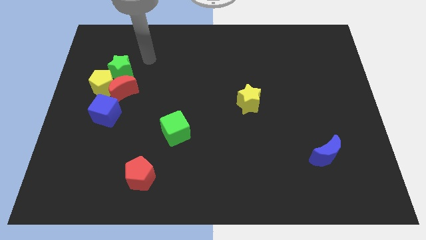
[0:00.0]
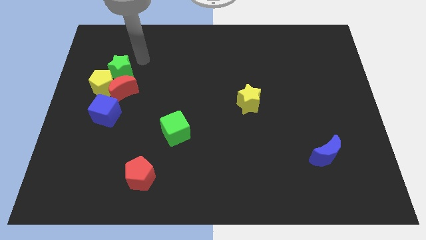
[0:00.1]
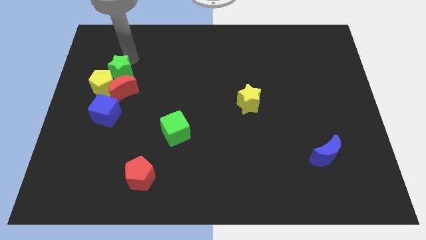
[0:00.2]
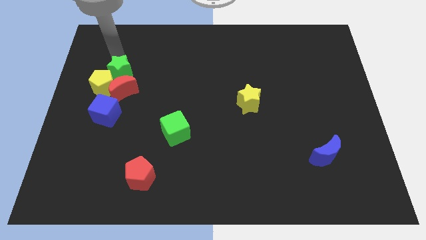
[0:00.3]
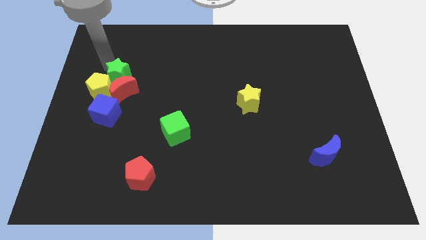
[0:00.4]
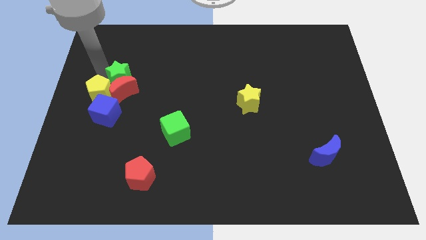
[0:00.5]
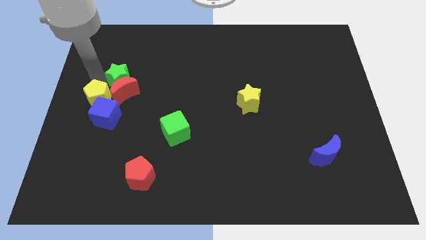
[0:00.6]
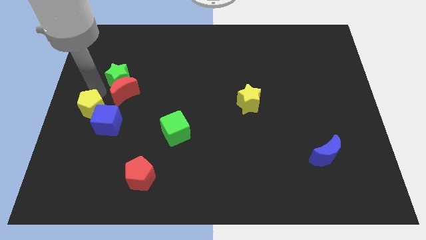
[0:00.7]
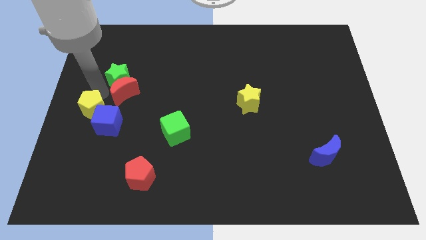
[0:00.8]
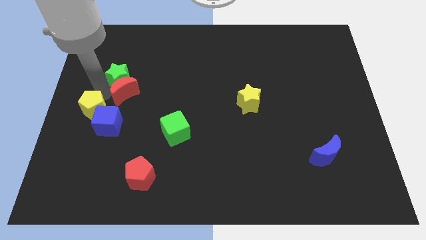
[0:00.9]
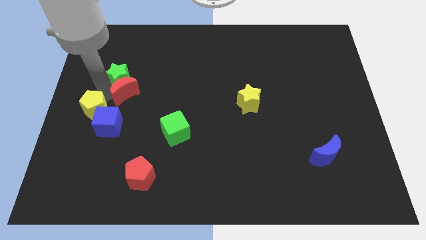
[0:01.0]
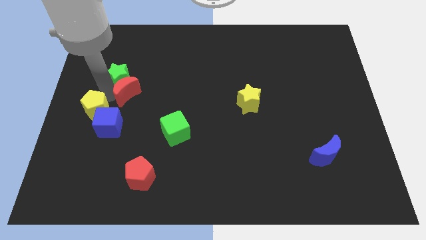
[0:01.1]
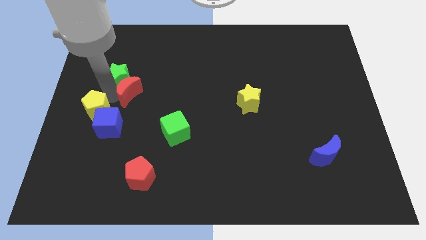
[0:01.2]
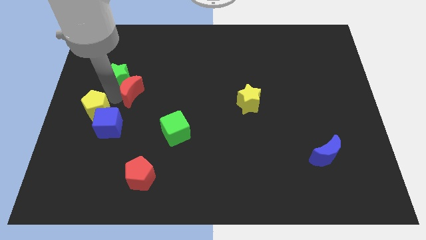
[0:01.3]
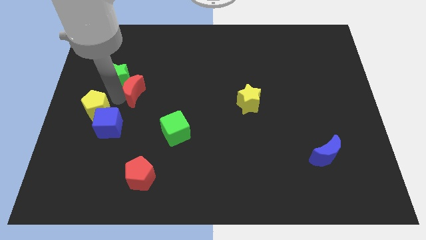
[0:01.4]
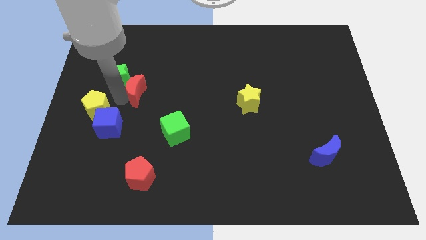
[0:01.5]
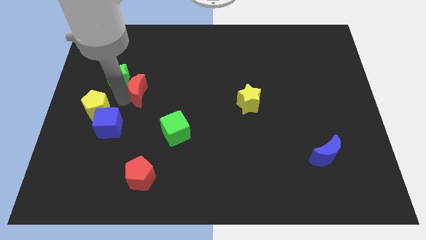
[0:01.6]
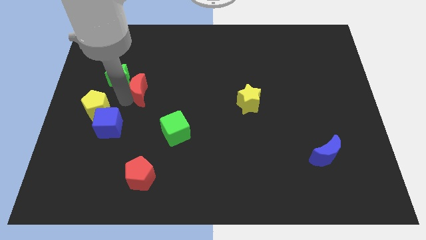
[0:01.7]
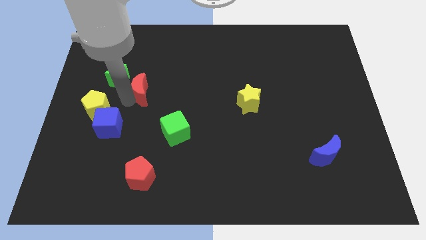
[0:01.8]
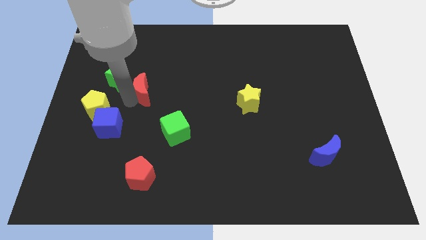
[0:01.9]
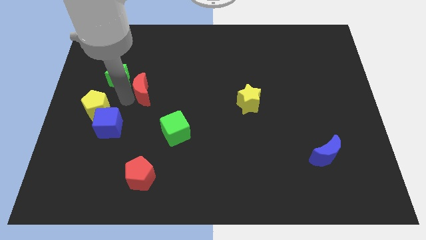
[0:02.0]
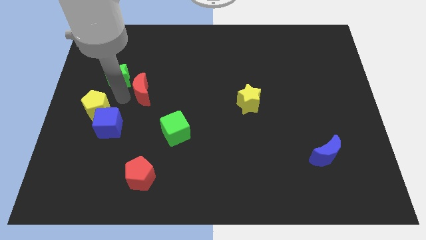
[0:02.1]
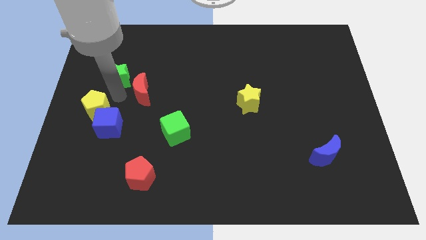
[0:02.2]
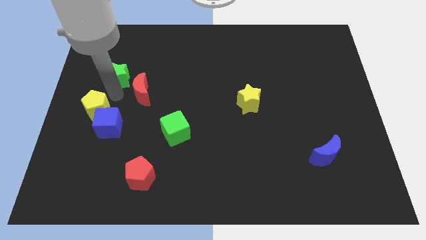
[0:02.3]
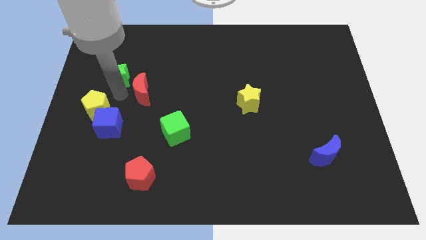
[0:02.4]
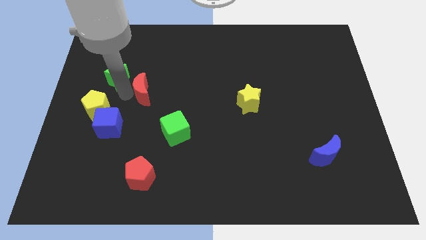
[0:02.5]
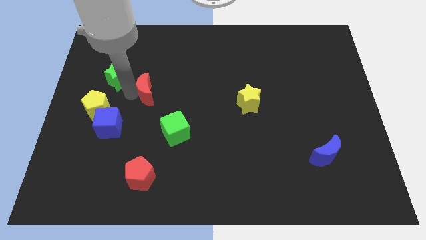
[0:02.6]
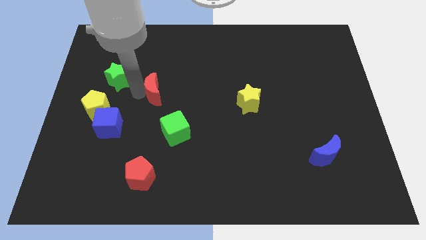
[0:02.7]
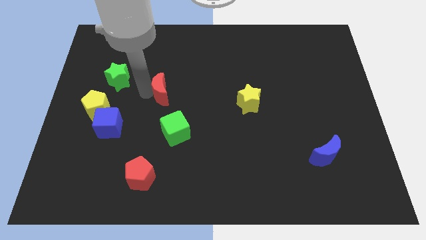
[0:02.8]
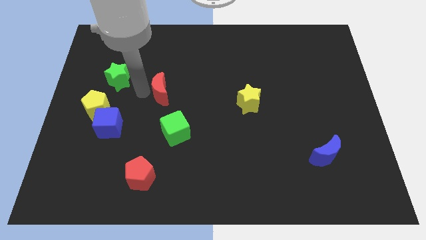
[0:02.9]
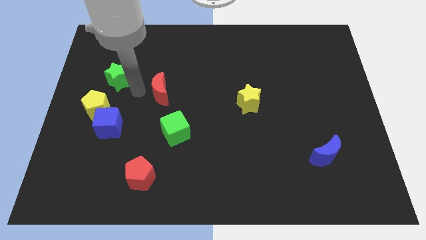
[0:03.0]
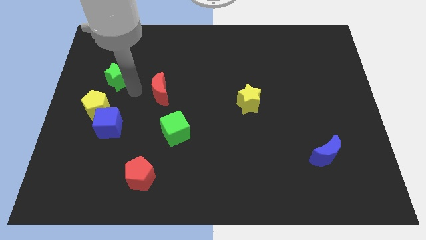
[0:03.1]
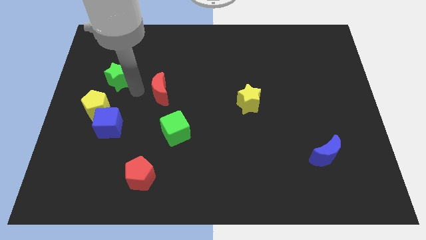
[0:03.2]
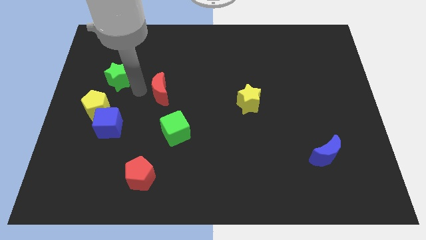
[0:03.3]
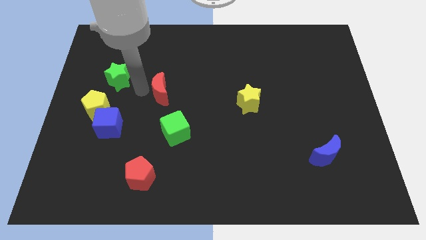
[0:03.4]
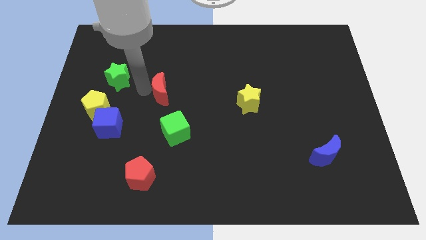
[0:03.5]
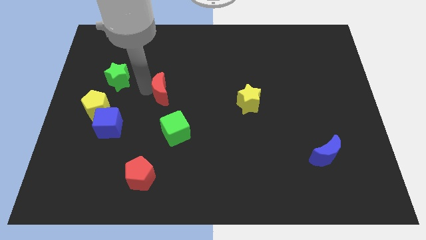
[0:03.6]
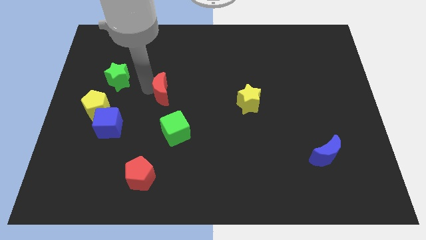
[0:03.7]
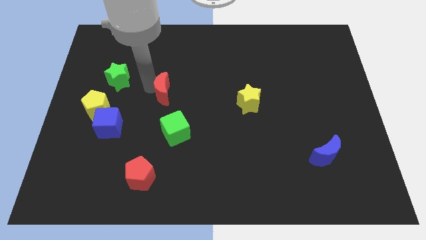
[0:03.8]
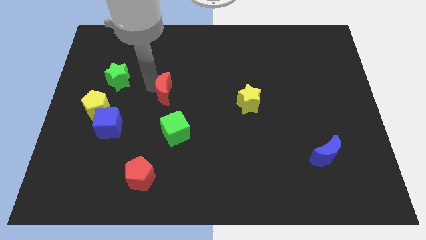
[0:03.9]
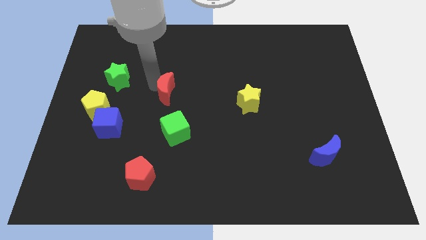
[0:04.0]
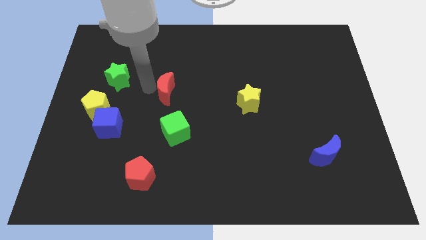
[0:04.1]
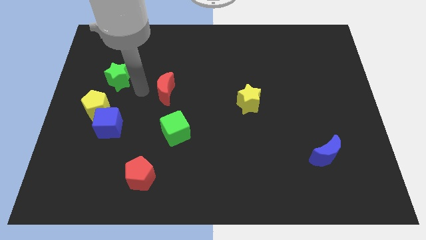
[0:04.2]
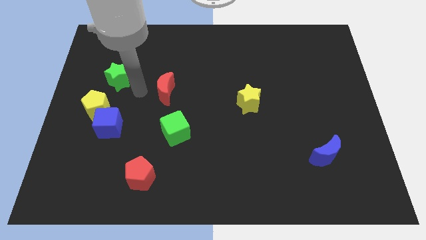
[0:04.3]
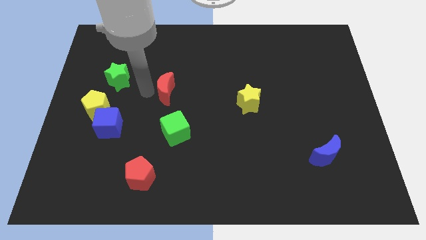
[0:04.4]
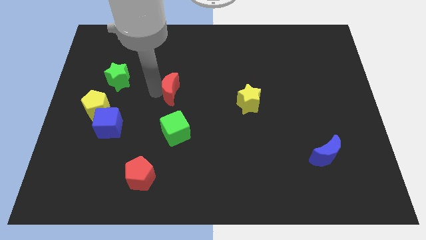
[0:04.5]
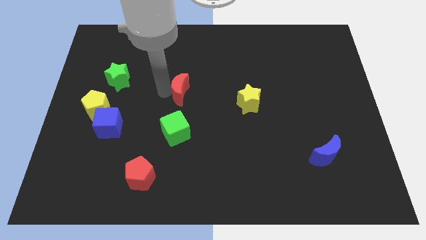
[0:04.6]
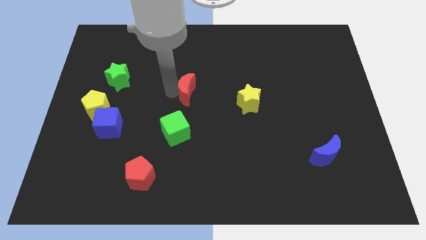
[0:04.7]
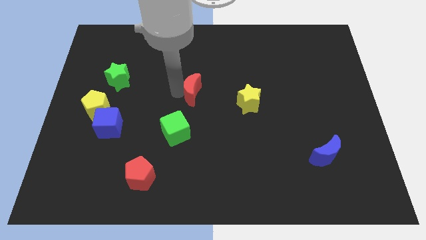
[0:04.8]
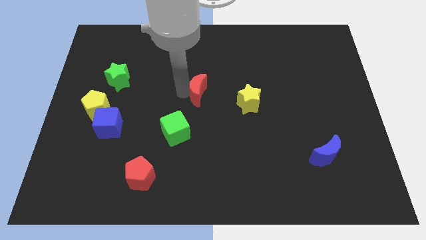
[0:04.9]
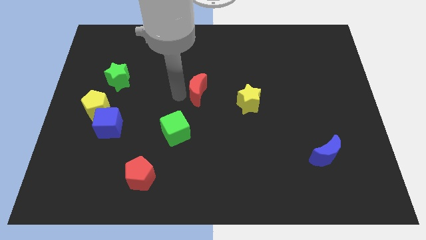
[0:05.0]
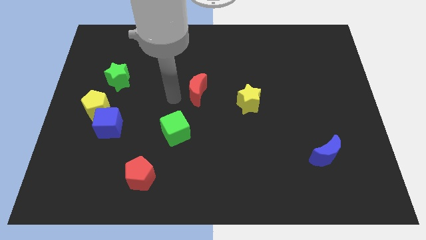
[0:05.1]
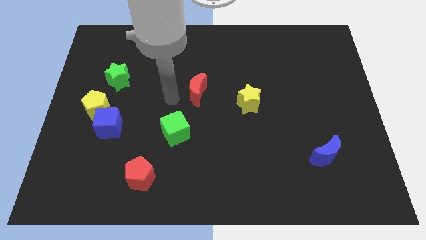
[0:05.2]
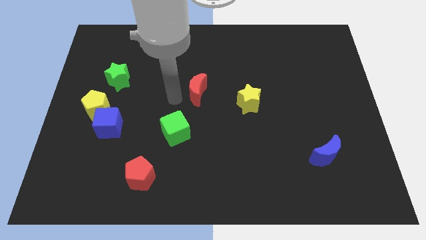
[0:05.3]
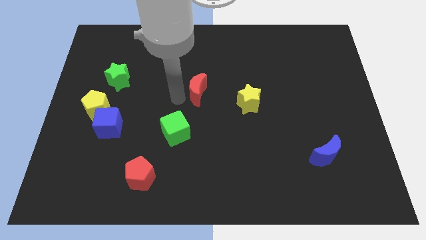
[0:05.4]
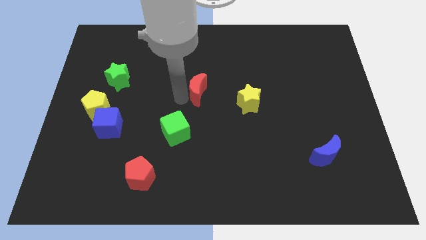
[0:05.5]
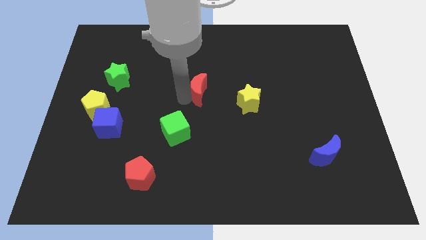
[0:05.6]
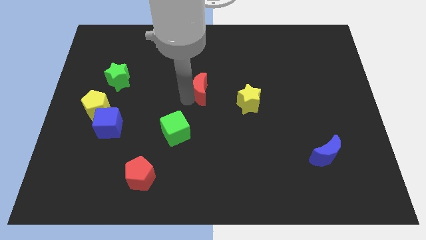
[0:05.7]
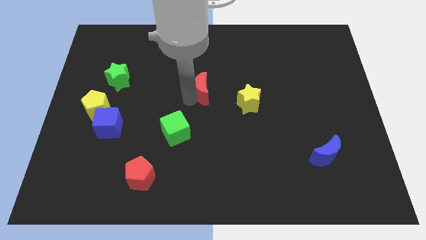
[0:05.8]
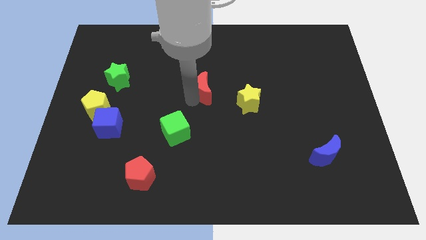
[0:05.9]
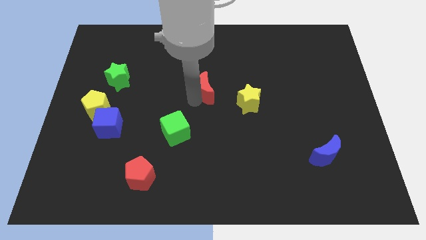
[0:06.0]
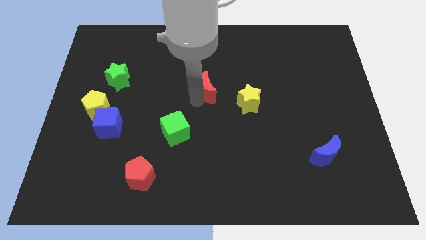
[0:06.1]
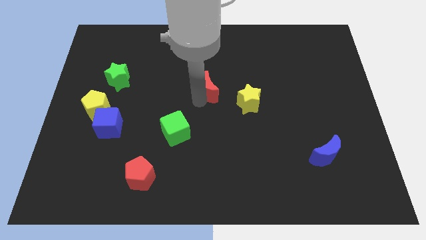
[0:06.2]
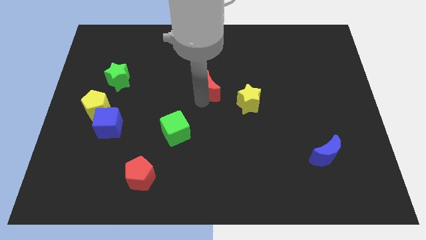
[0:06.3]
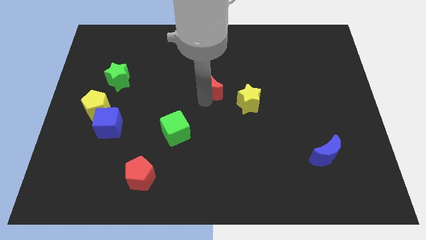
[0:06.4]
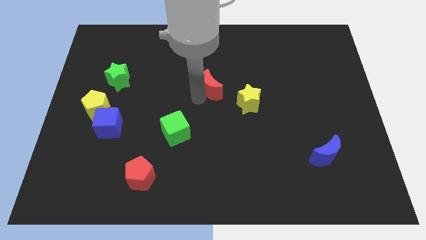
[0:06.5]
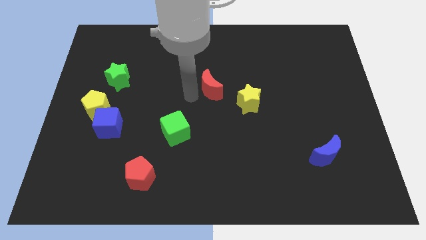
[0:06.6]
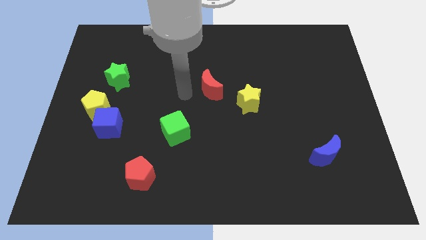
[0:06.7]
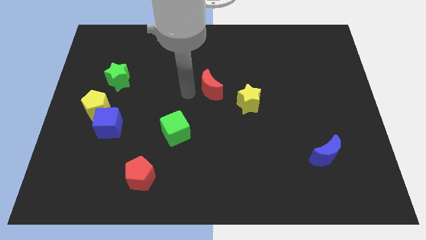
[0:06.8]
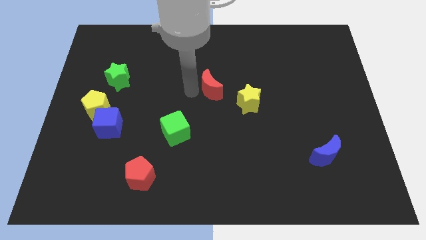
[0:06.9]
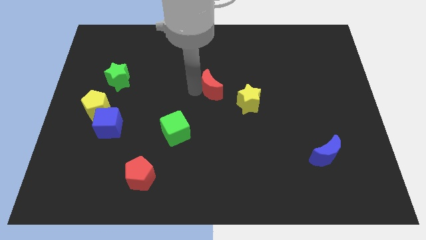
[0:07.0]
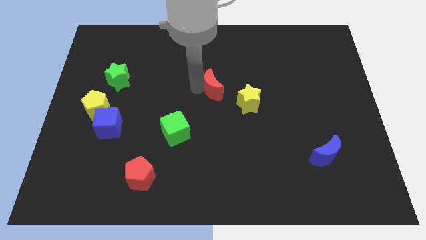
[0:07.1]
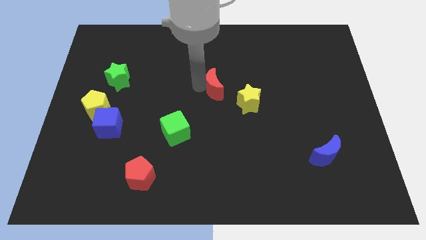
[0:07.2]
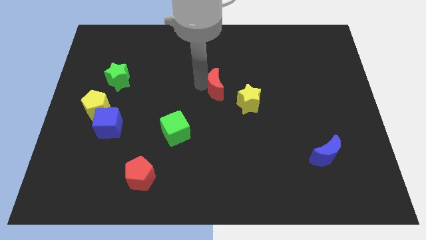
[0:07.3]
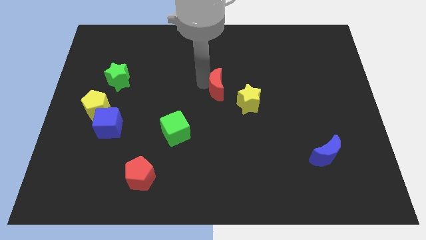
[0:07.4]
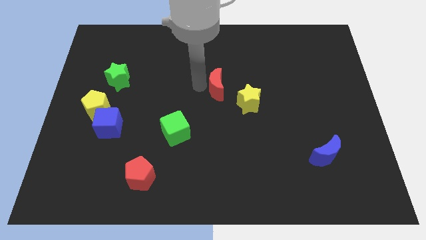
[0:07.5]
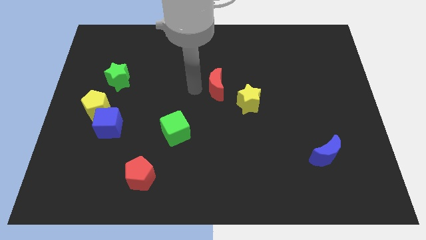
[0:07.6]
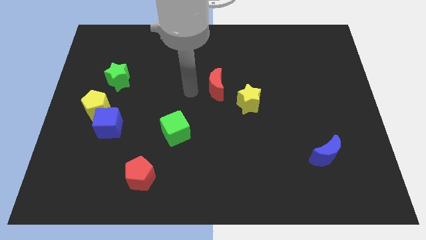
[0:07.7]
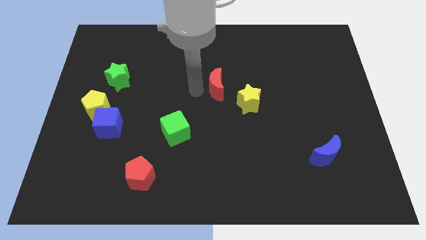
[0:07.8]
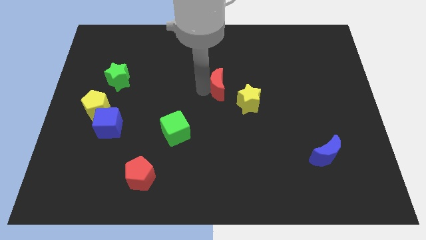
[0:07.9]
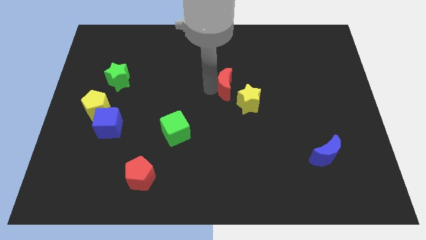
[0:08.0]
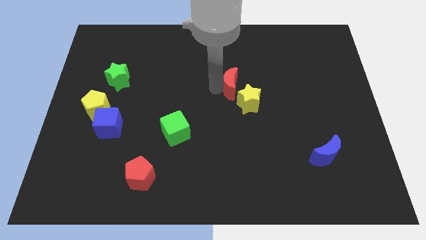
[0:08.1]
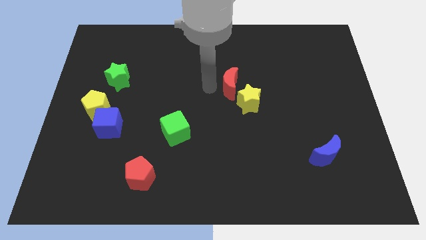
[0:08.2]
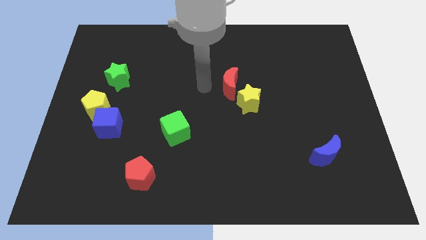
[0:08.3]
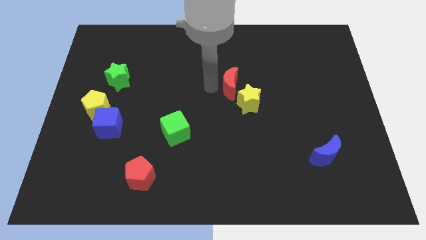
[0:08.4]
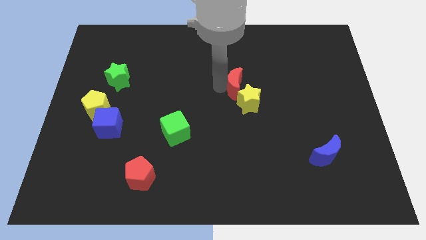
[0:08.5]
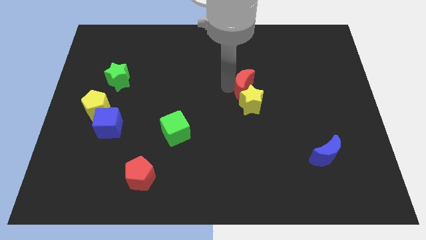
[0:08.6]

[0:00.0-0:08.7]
slide the red moon to the top right side of the yellow star
